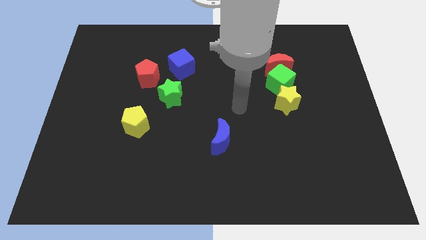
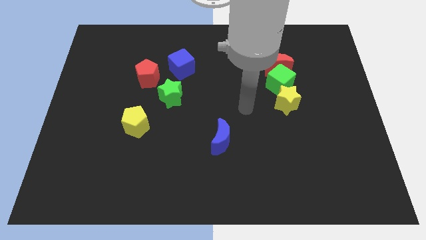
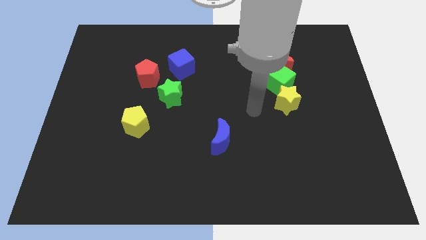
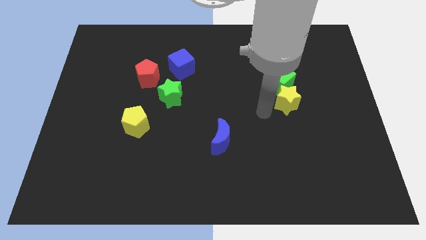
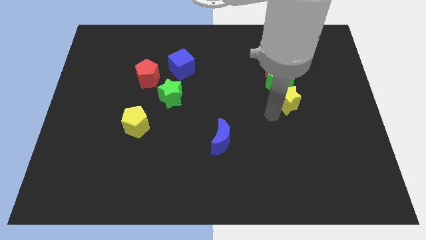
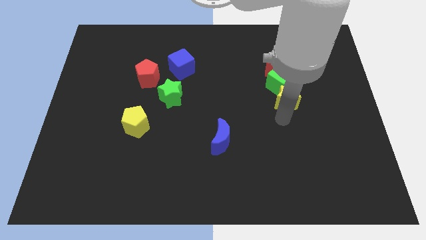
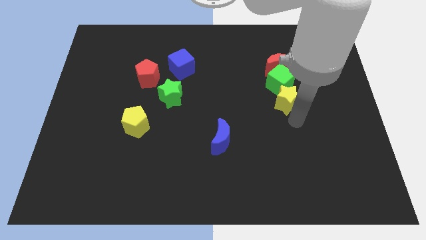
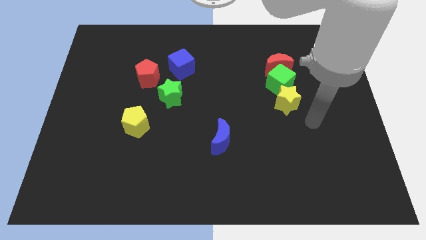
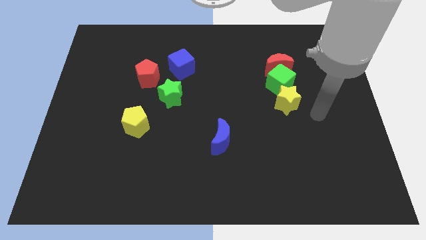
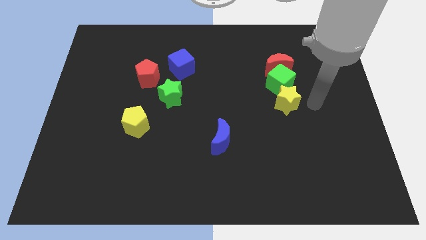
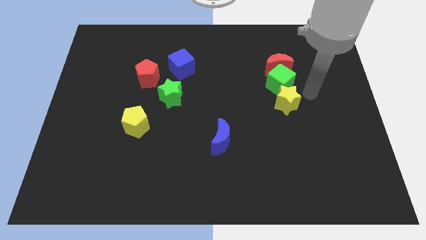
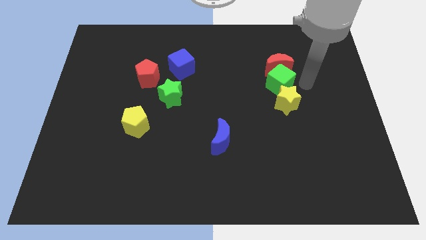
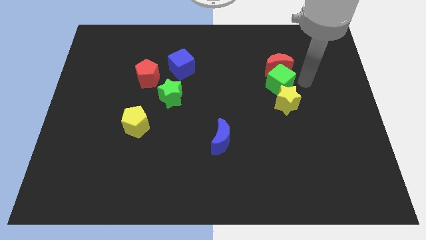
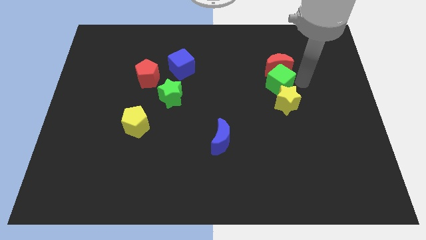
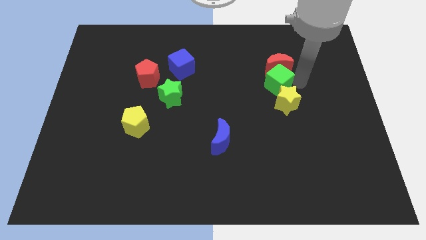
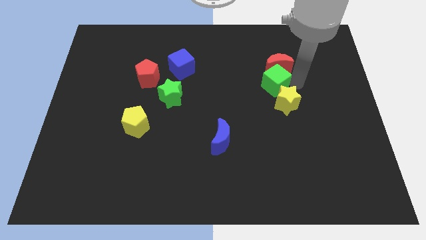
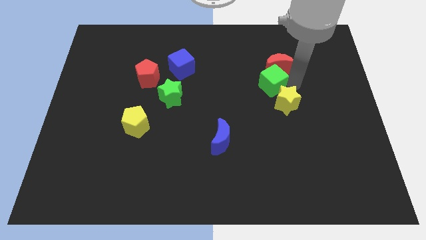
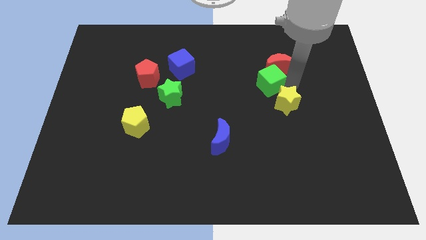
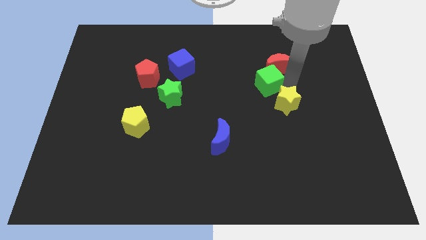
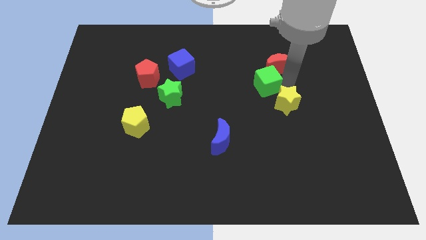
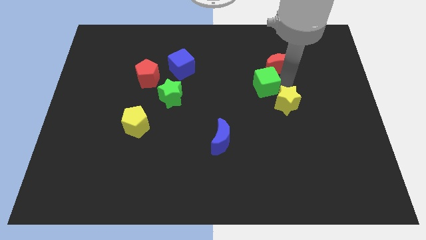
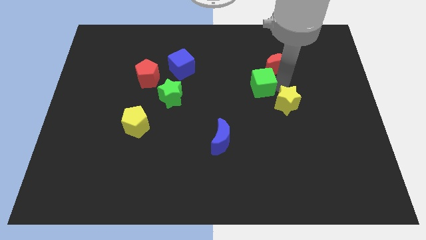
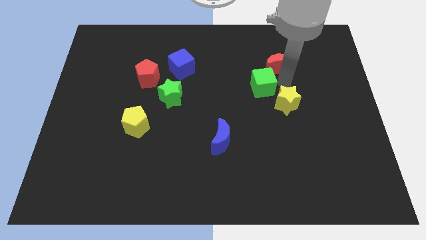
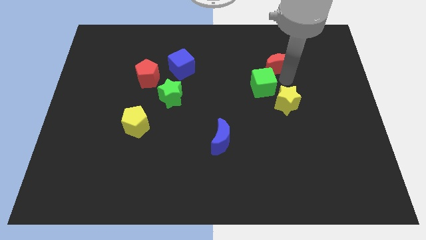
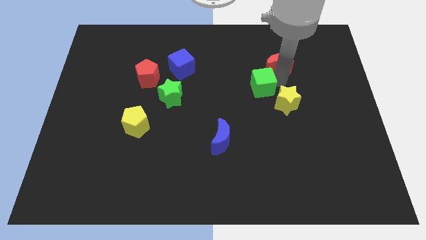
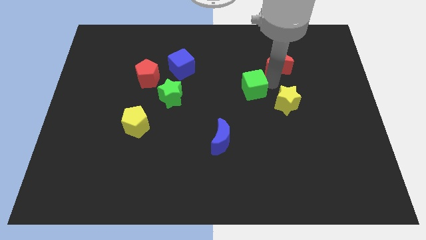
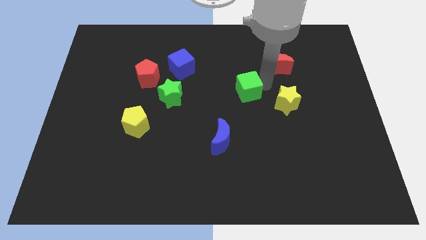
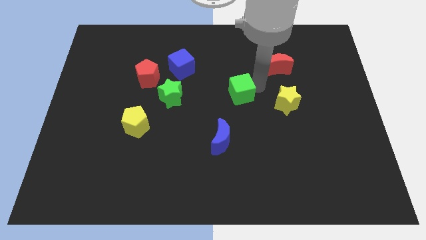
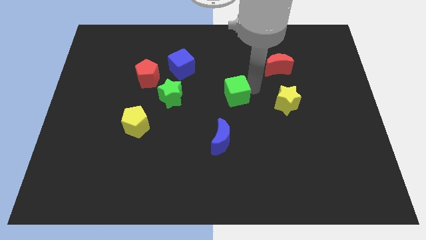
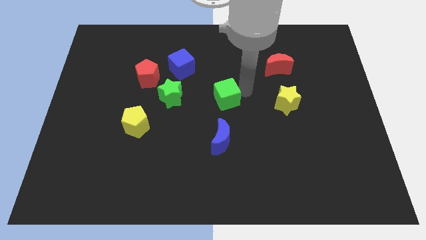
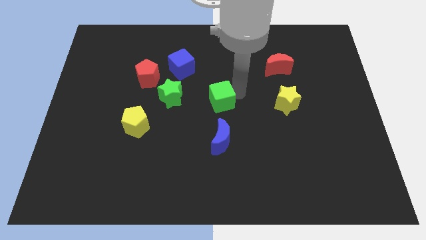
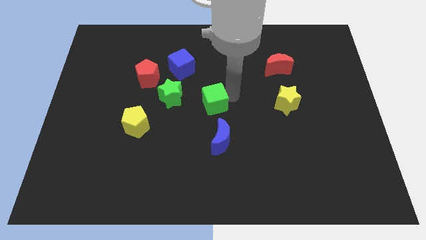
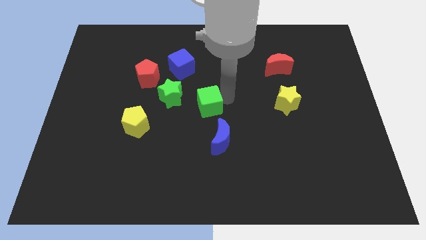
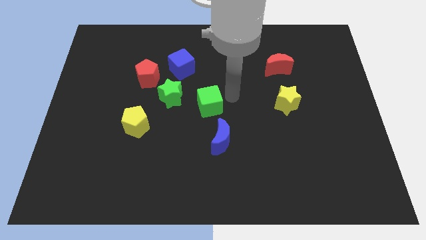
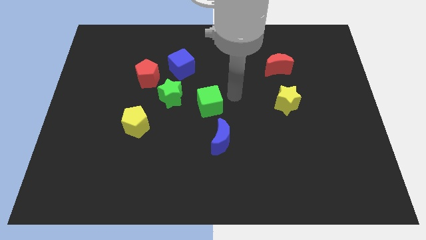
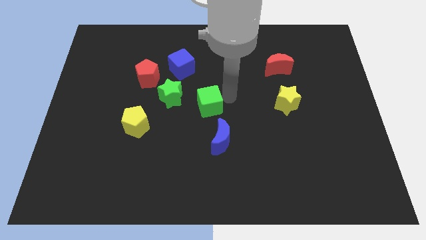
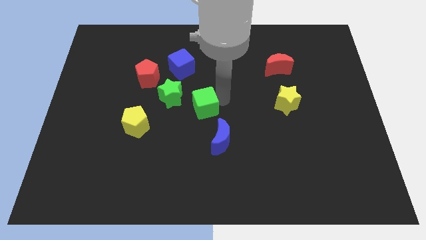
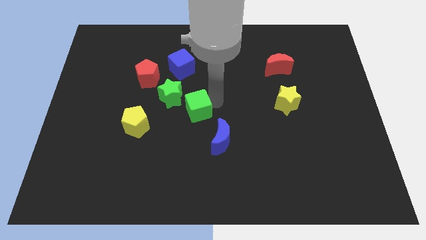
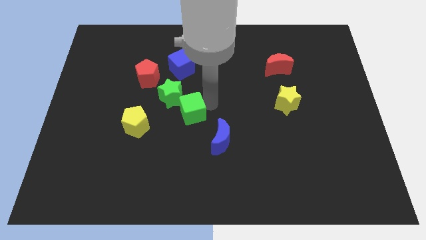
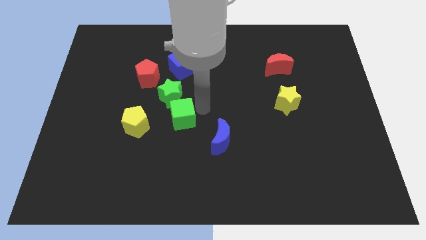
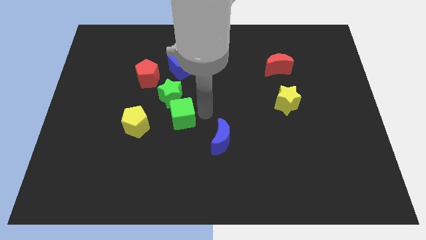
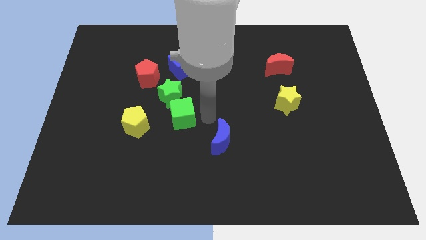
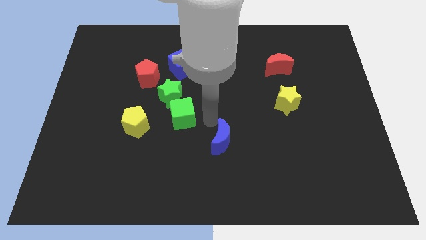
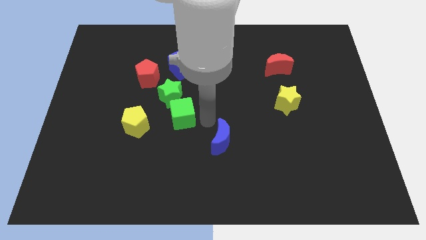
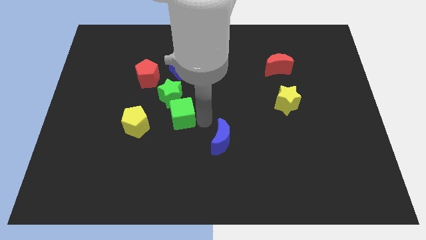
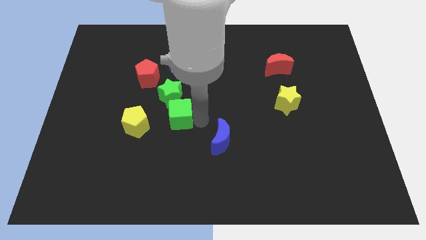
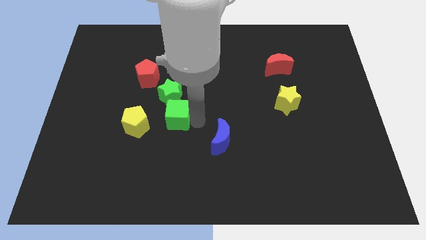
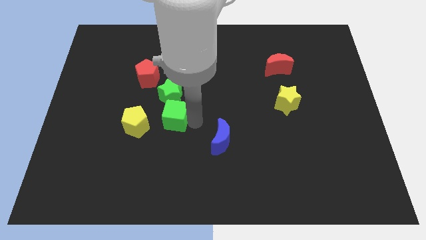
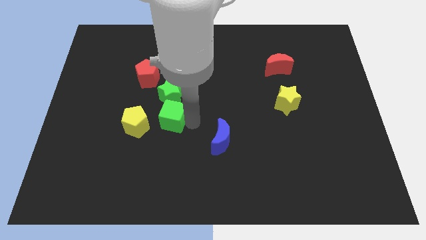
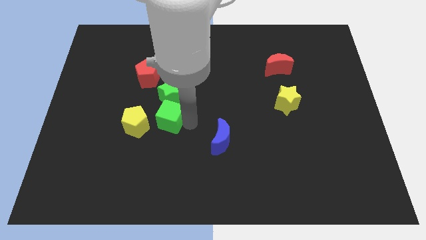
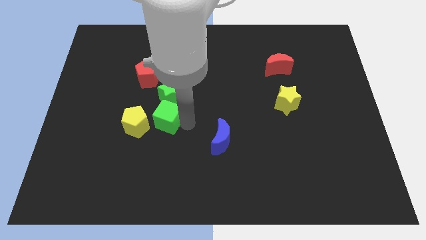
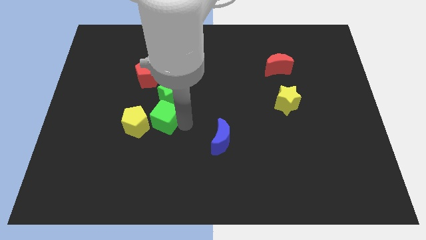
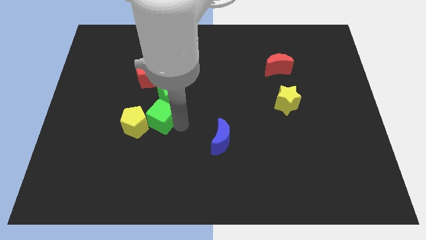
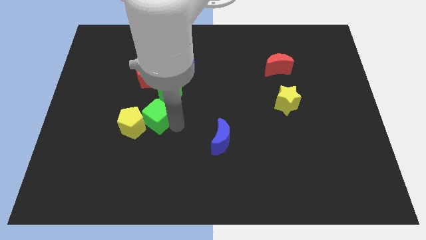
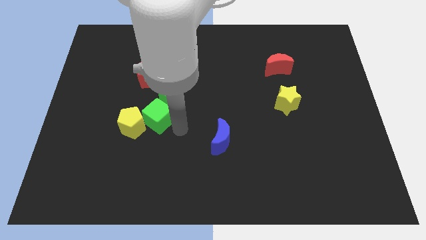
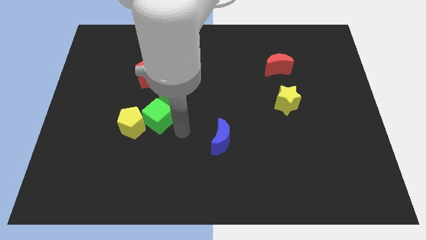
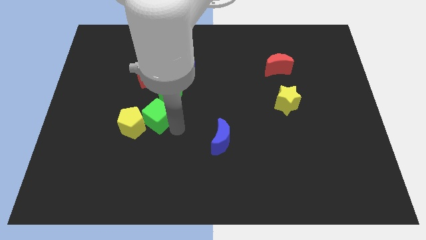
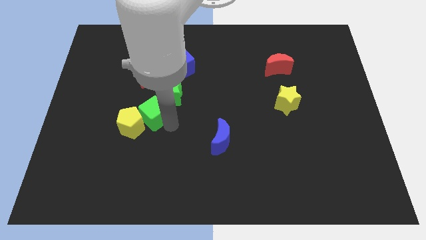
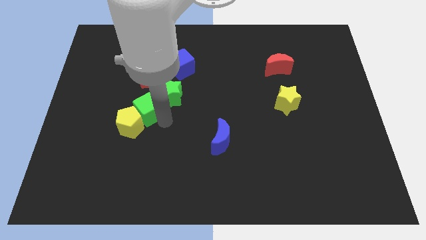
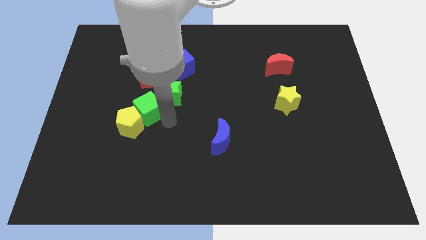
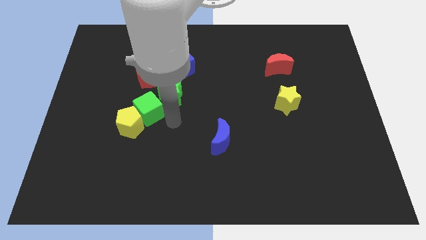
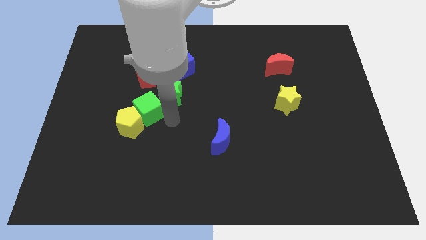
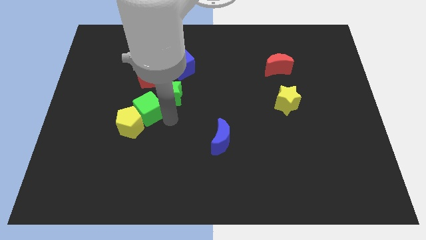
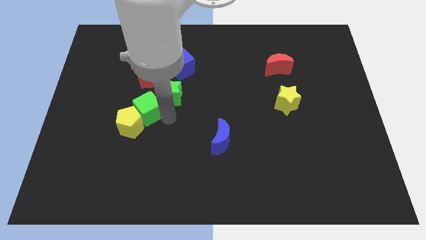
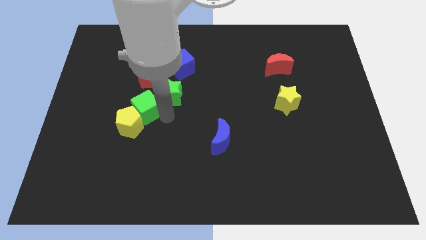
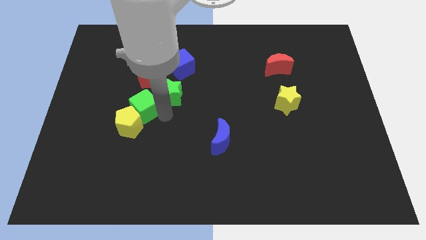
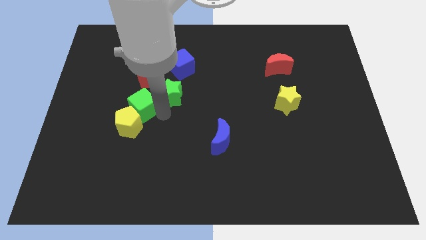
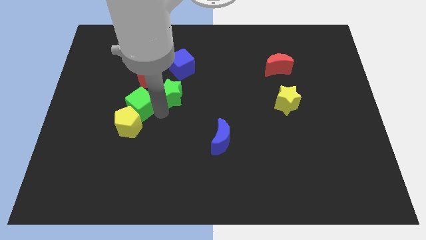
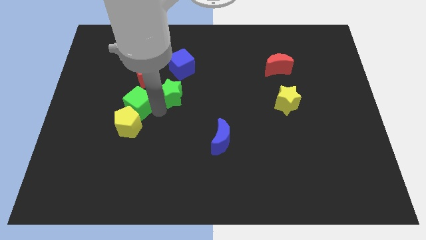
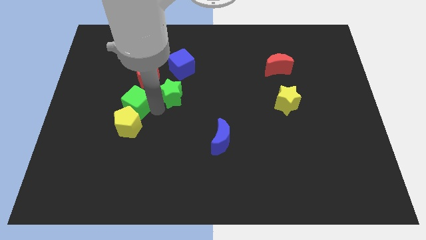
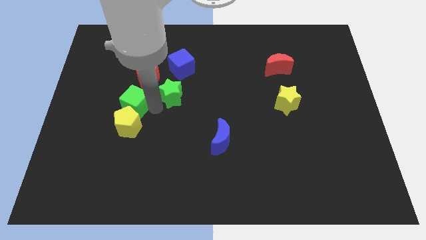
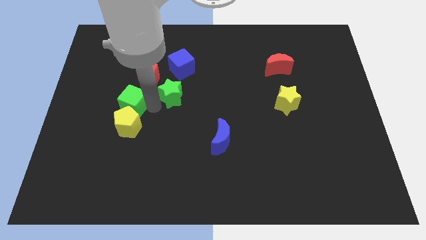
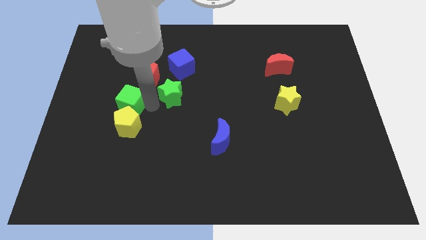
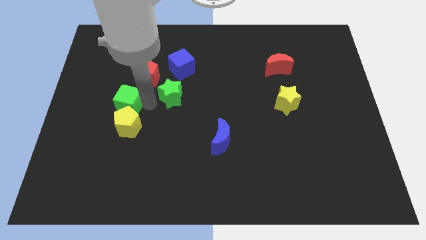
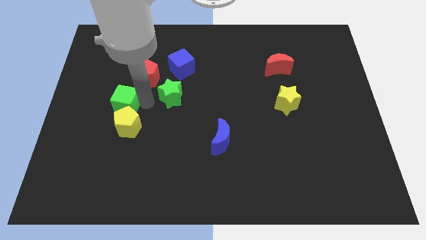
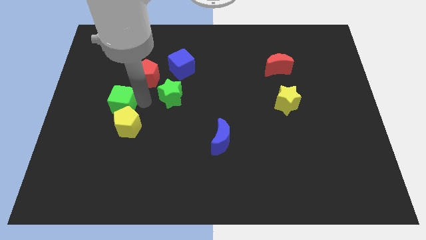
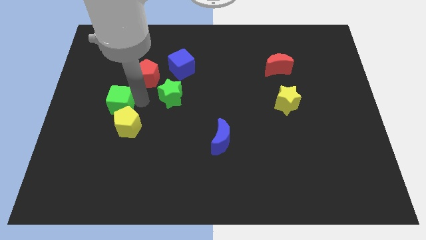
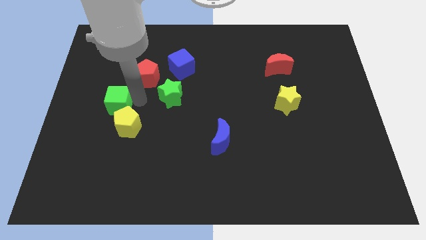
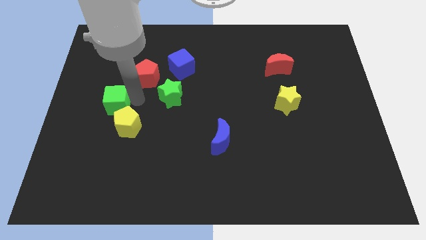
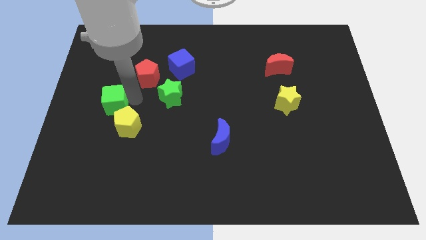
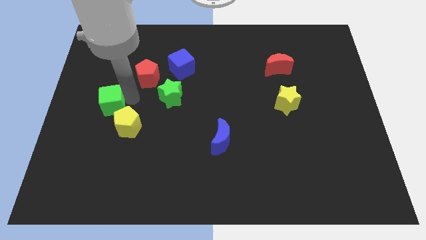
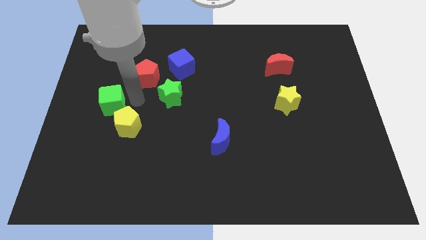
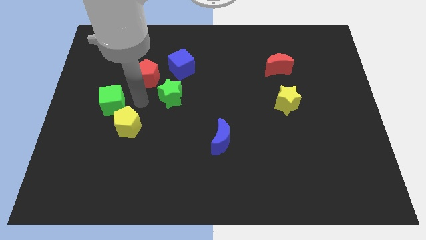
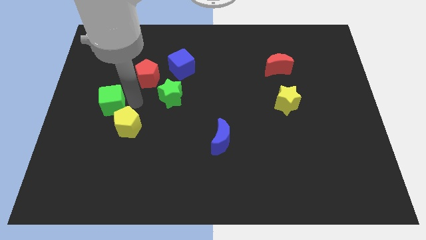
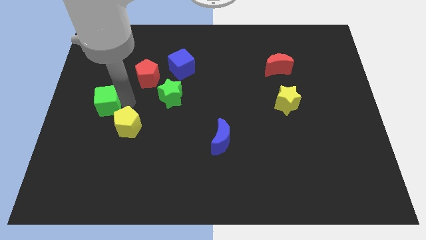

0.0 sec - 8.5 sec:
slide the green cube to the center left
